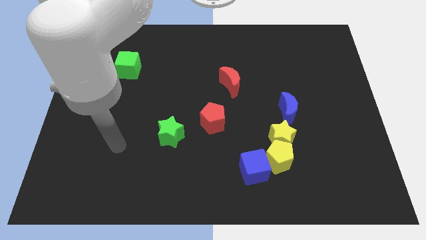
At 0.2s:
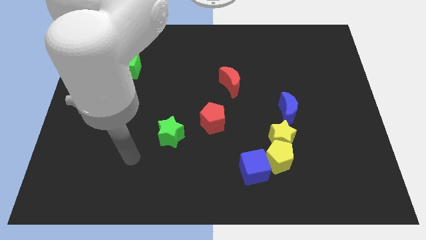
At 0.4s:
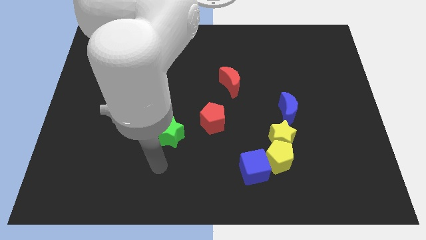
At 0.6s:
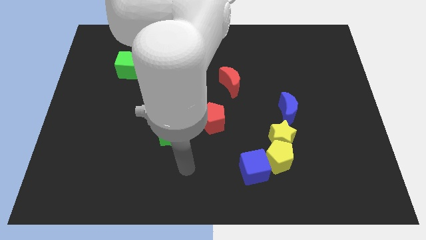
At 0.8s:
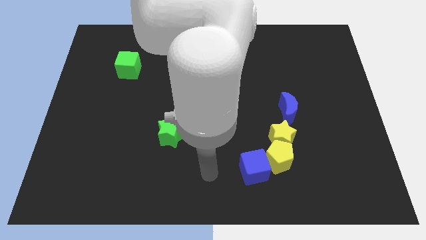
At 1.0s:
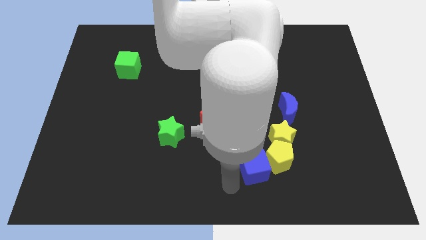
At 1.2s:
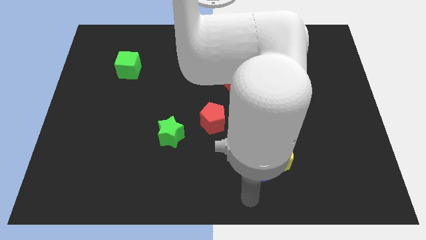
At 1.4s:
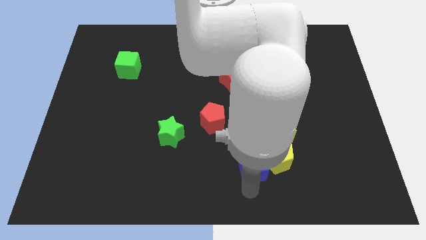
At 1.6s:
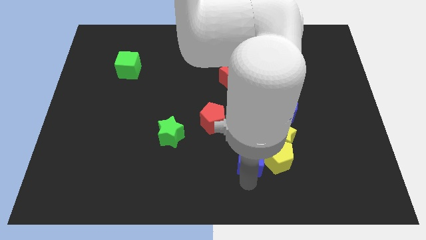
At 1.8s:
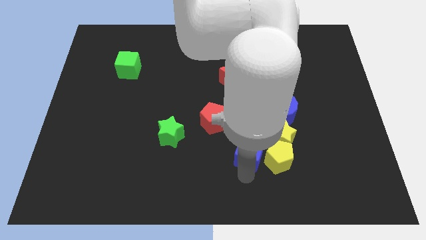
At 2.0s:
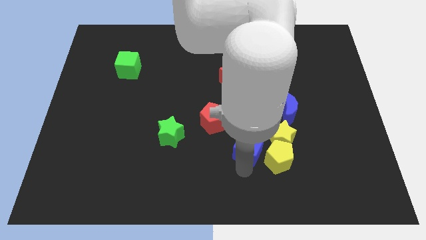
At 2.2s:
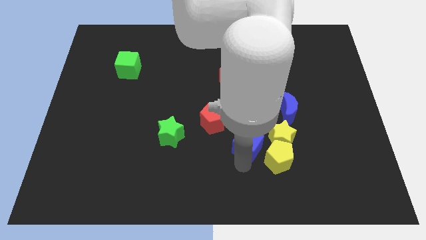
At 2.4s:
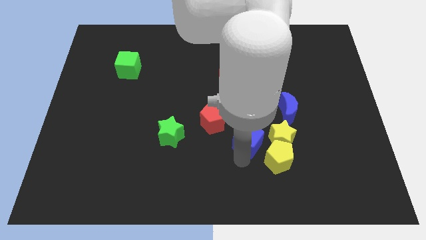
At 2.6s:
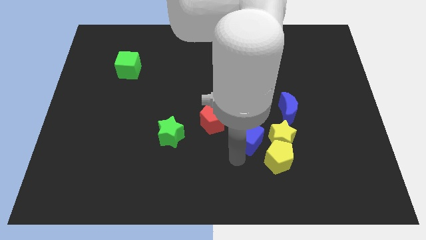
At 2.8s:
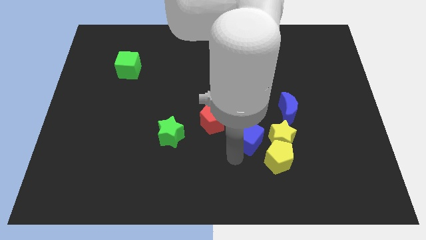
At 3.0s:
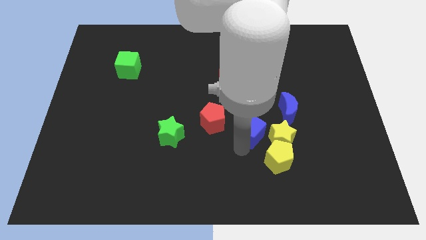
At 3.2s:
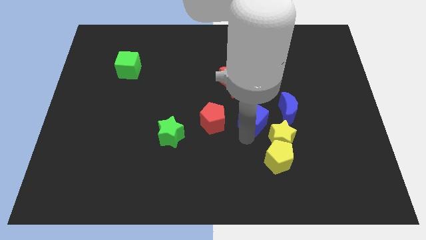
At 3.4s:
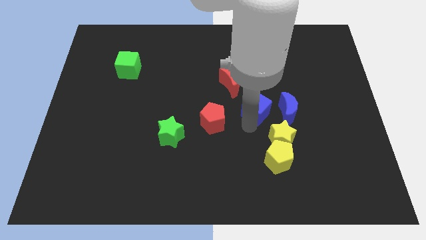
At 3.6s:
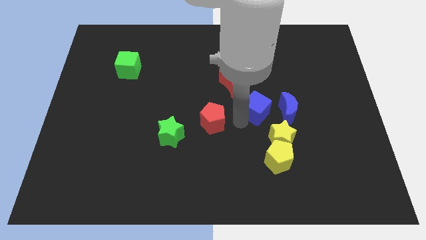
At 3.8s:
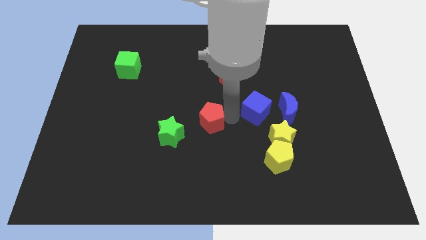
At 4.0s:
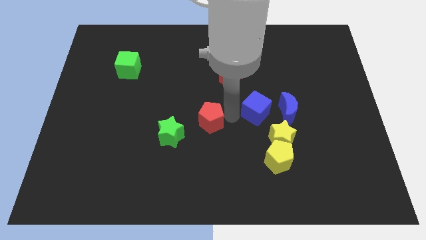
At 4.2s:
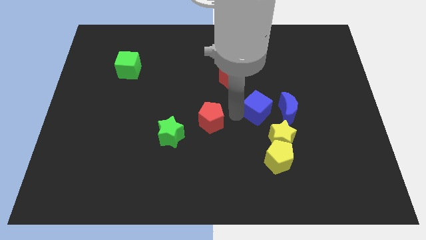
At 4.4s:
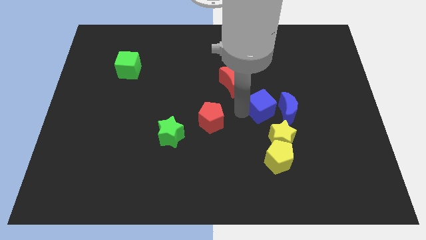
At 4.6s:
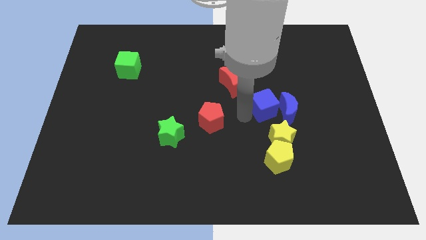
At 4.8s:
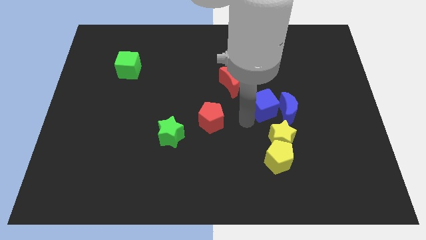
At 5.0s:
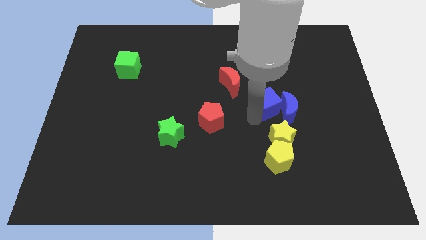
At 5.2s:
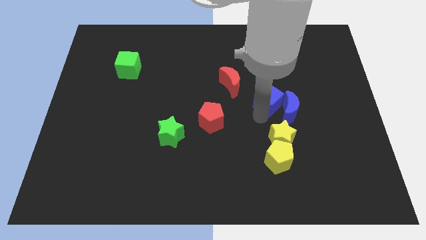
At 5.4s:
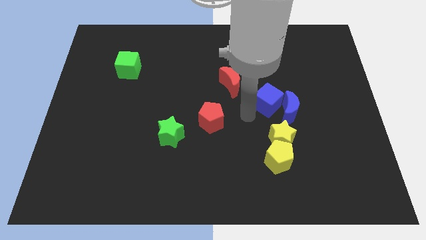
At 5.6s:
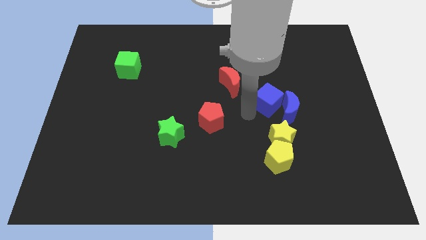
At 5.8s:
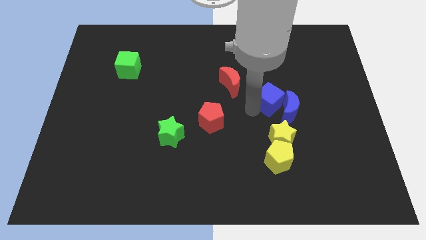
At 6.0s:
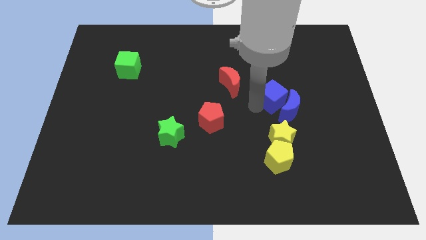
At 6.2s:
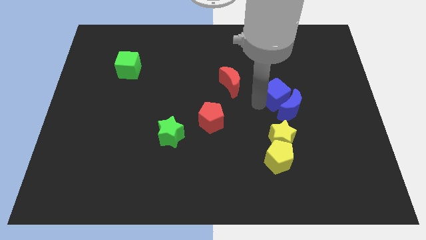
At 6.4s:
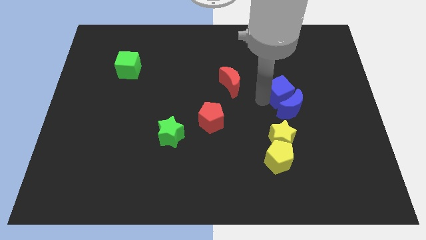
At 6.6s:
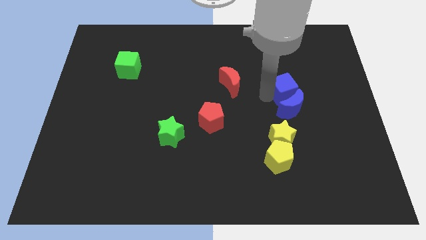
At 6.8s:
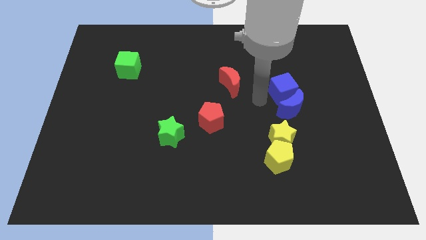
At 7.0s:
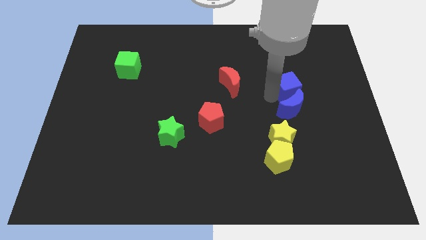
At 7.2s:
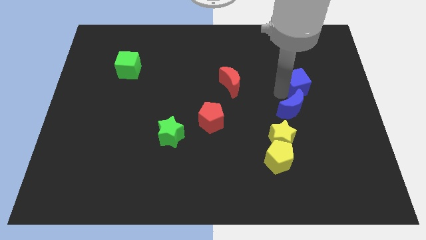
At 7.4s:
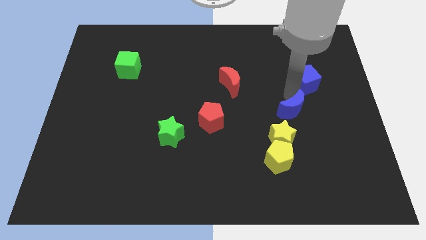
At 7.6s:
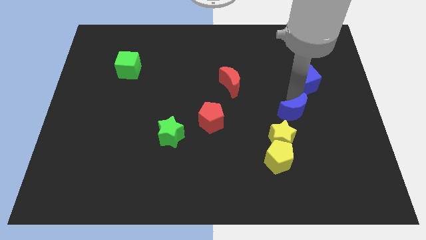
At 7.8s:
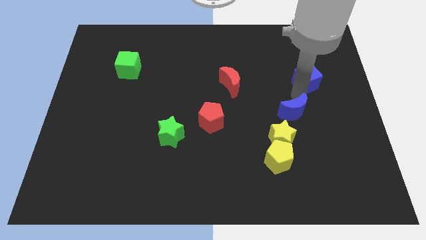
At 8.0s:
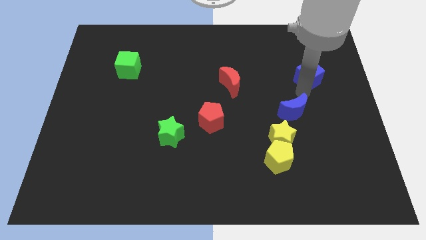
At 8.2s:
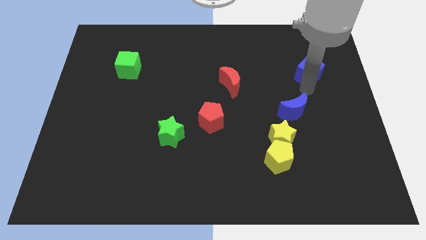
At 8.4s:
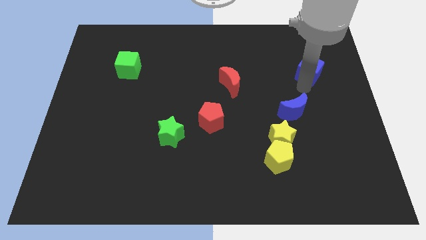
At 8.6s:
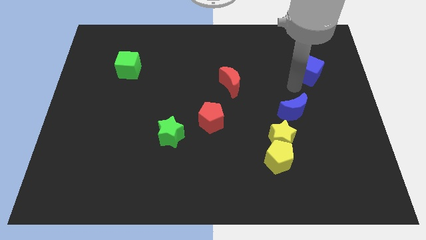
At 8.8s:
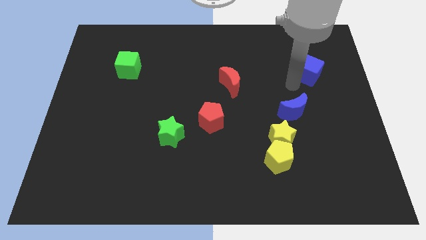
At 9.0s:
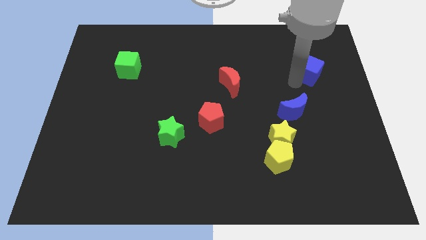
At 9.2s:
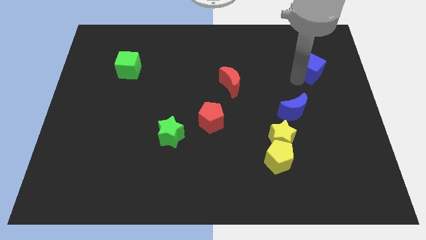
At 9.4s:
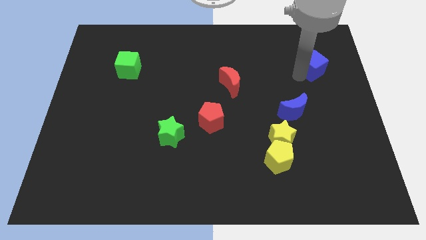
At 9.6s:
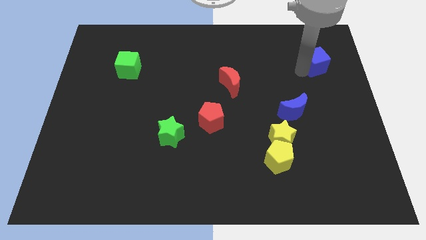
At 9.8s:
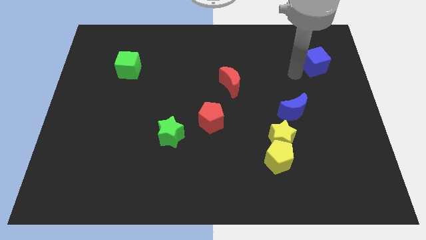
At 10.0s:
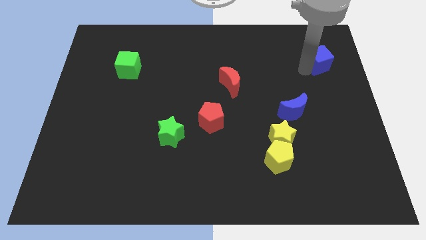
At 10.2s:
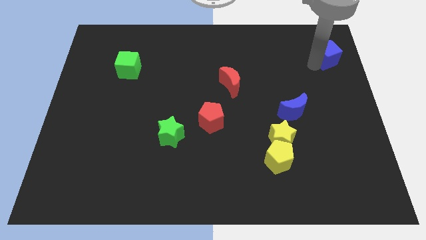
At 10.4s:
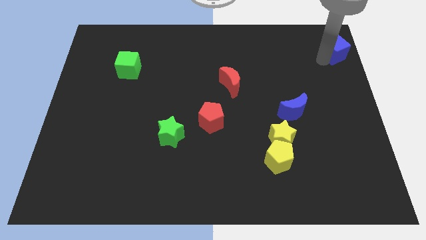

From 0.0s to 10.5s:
put the blue cube to the top right

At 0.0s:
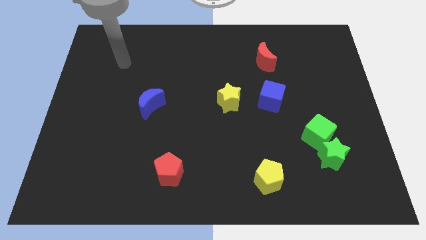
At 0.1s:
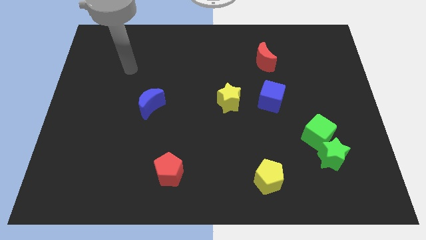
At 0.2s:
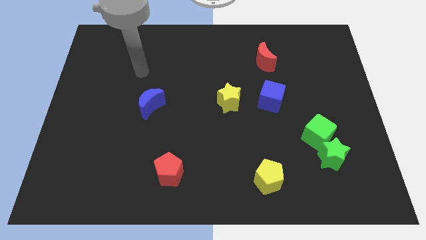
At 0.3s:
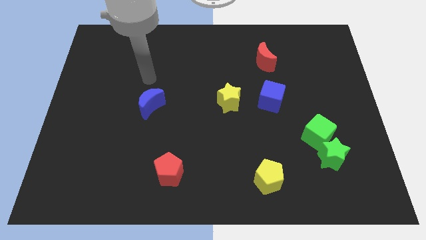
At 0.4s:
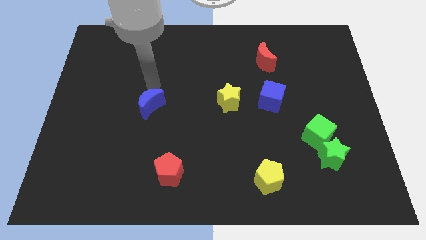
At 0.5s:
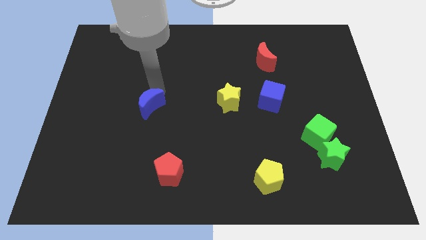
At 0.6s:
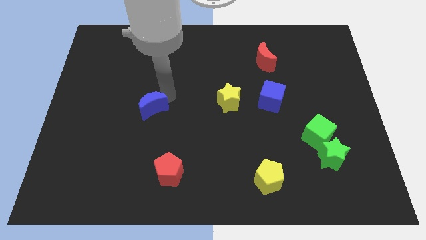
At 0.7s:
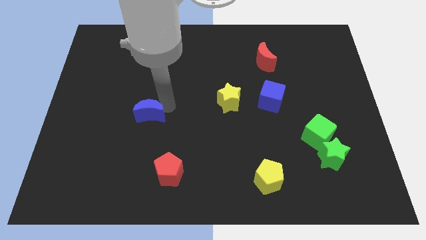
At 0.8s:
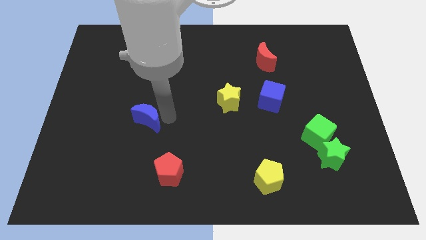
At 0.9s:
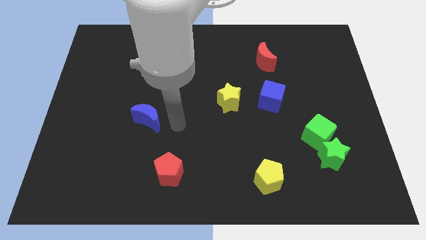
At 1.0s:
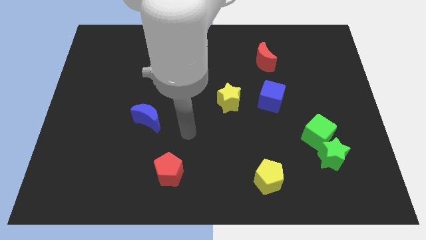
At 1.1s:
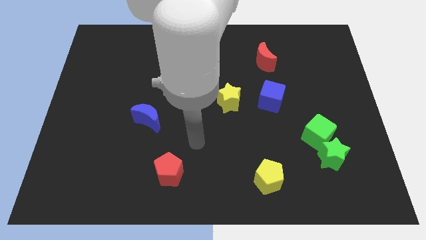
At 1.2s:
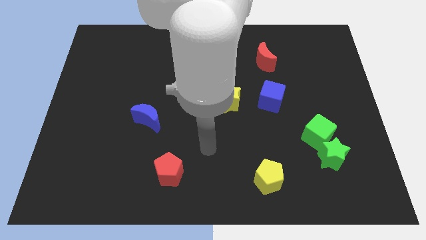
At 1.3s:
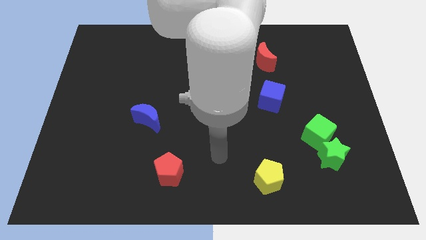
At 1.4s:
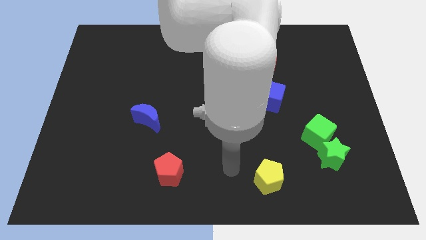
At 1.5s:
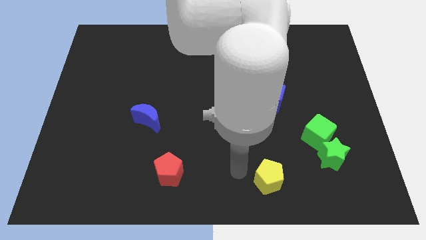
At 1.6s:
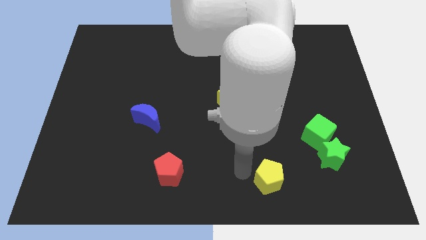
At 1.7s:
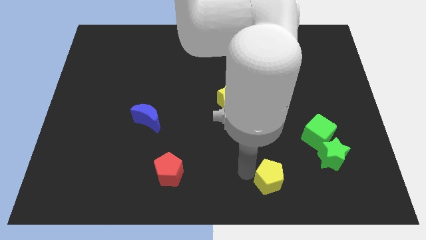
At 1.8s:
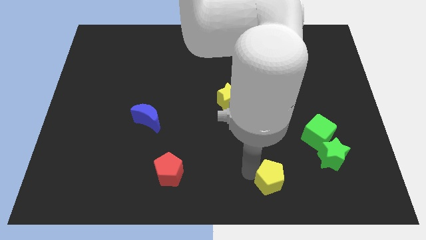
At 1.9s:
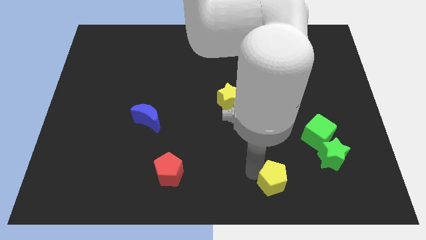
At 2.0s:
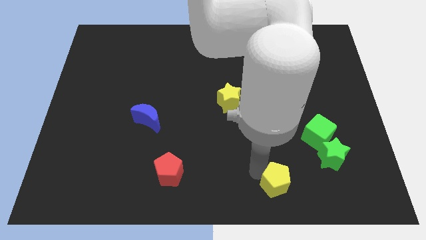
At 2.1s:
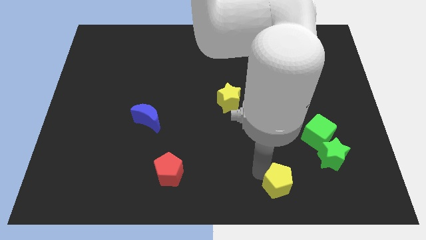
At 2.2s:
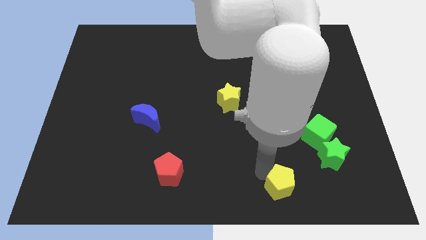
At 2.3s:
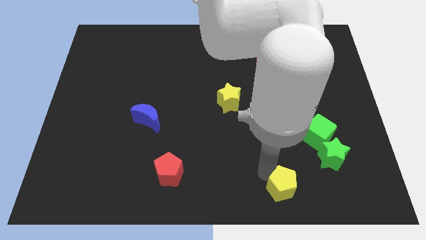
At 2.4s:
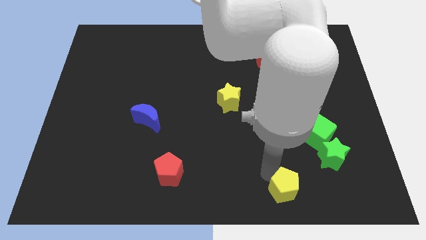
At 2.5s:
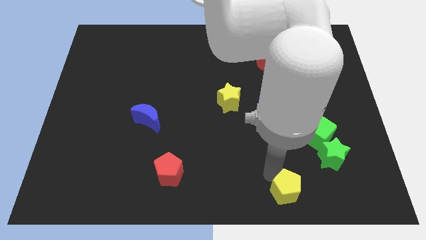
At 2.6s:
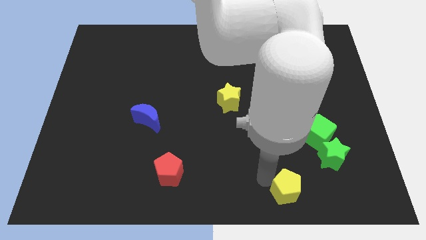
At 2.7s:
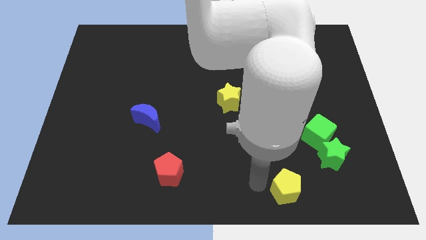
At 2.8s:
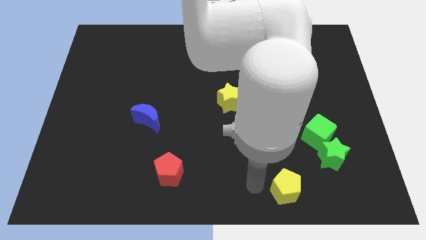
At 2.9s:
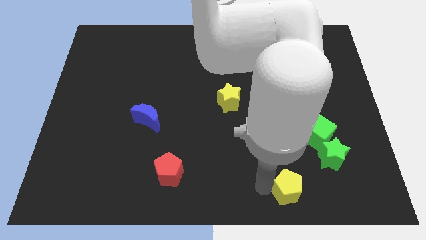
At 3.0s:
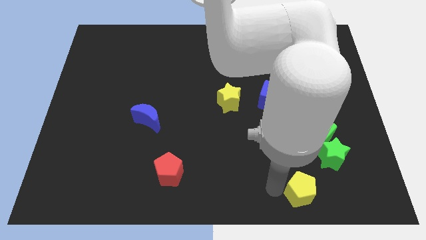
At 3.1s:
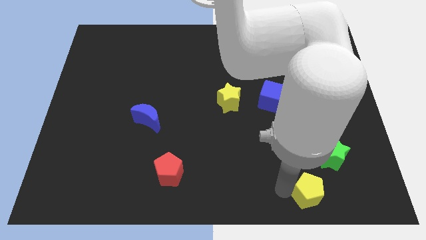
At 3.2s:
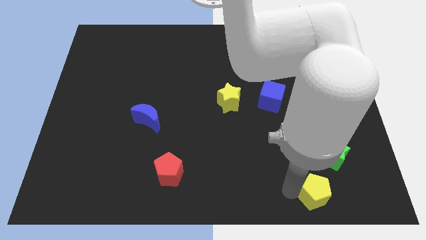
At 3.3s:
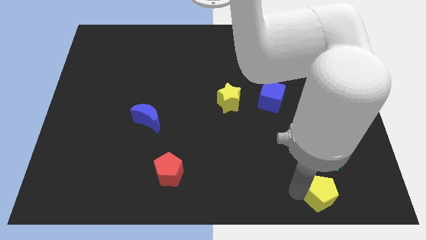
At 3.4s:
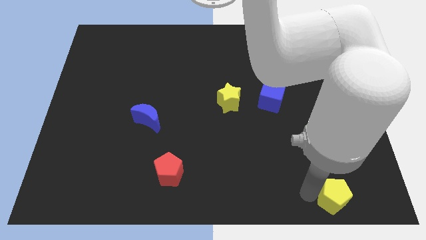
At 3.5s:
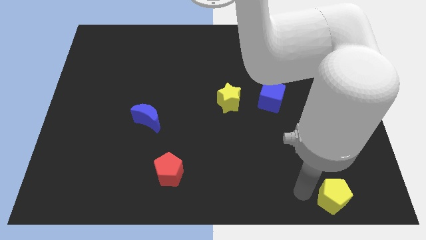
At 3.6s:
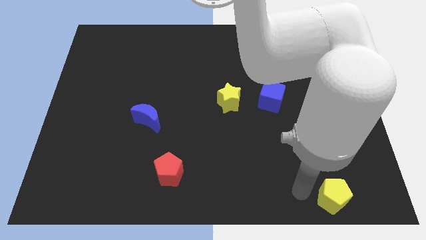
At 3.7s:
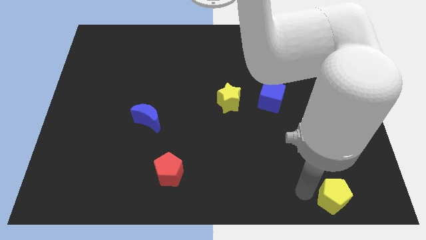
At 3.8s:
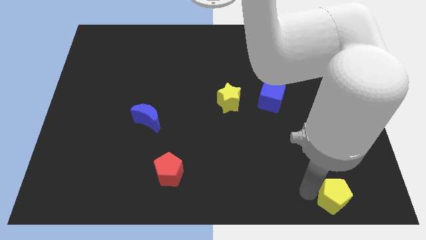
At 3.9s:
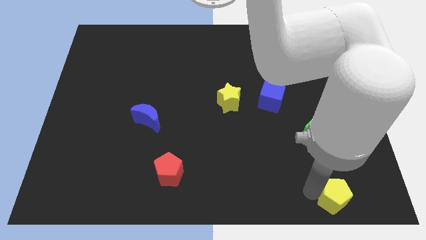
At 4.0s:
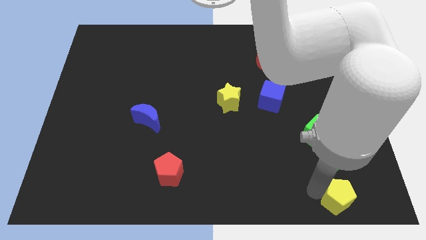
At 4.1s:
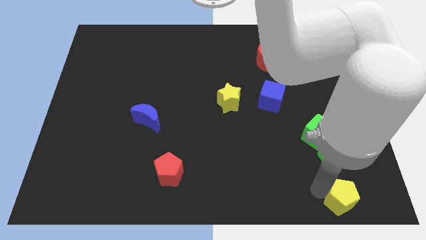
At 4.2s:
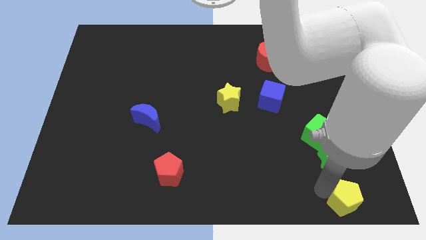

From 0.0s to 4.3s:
put the yellow pentagon to the lower right corner
